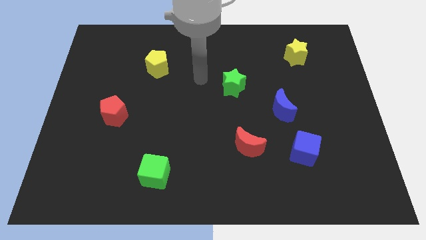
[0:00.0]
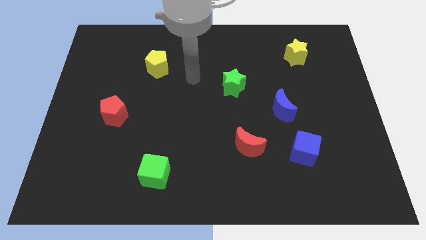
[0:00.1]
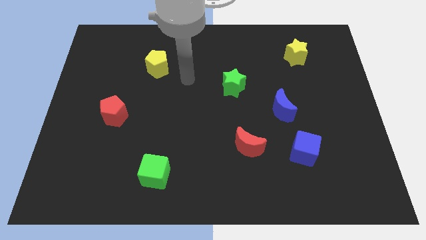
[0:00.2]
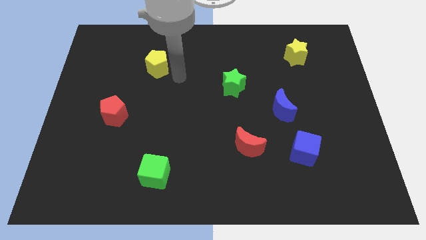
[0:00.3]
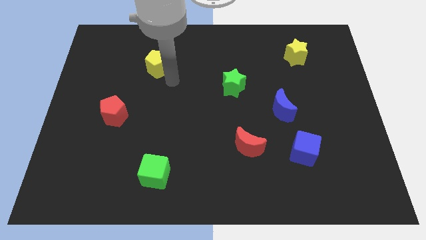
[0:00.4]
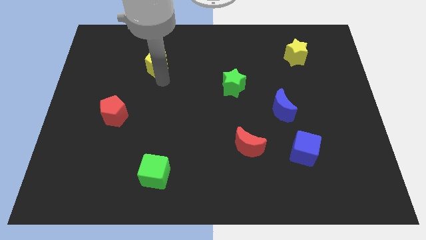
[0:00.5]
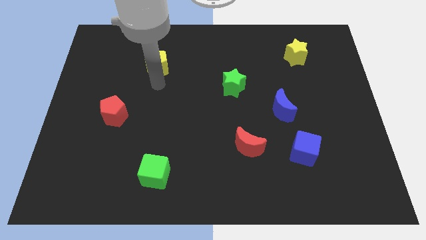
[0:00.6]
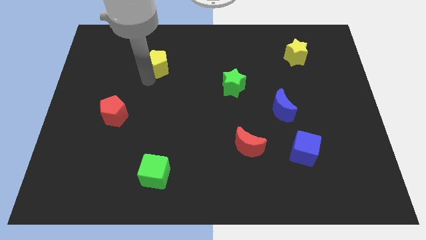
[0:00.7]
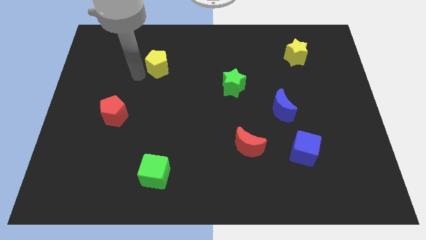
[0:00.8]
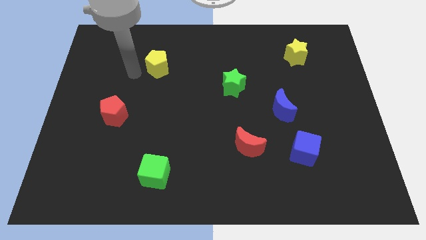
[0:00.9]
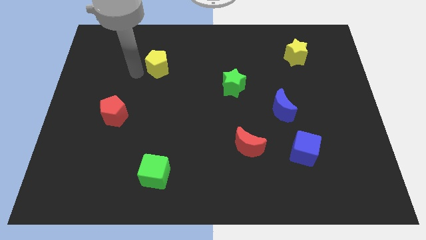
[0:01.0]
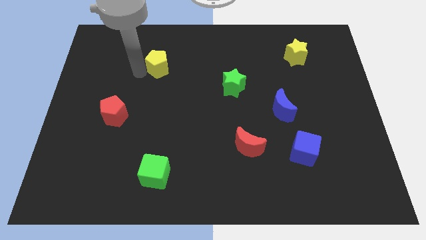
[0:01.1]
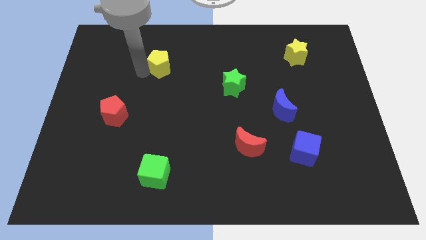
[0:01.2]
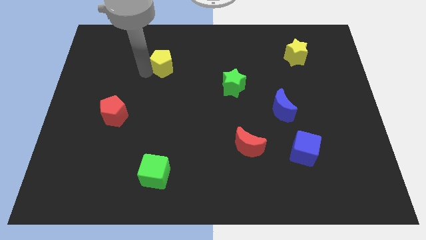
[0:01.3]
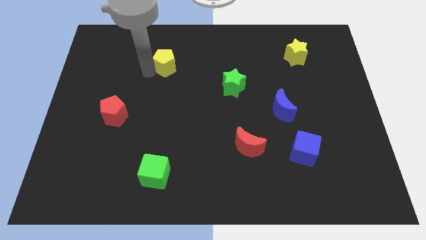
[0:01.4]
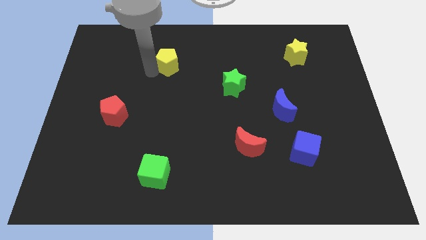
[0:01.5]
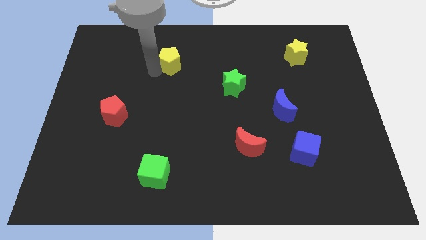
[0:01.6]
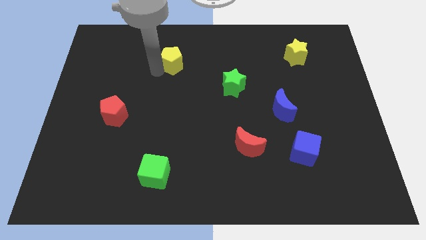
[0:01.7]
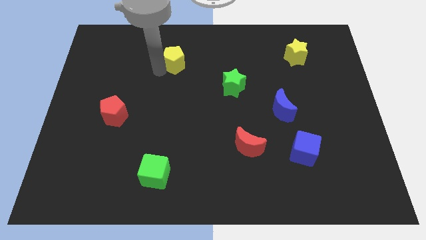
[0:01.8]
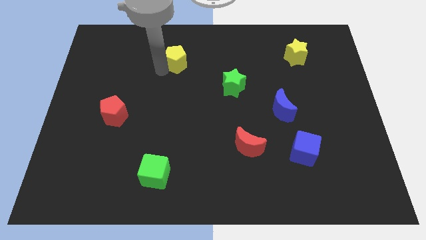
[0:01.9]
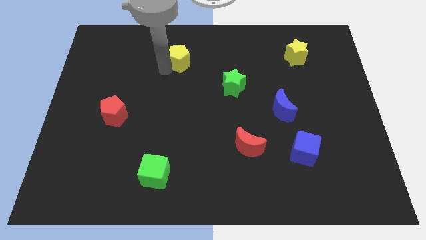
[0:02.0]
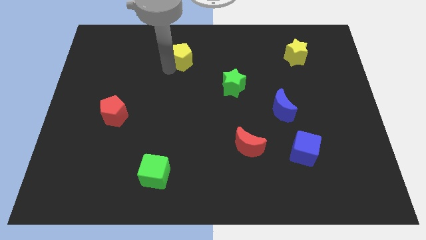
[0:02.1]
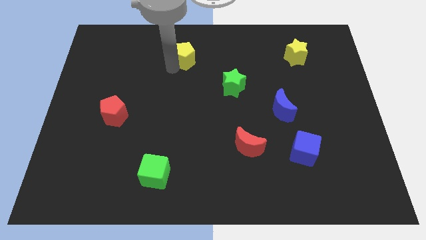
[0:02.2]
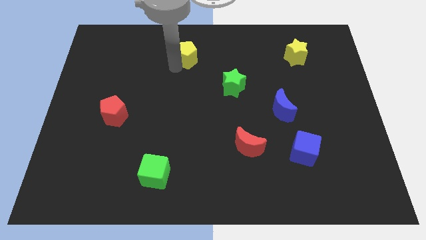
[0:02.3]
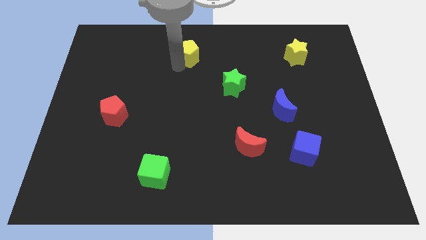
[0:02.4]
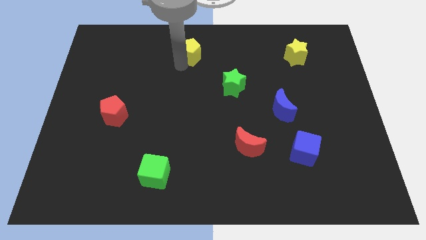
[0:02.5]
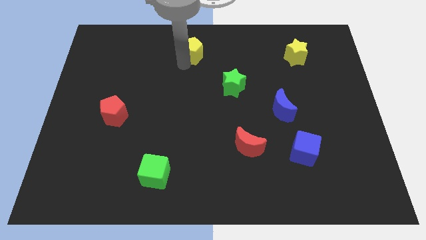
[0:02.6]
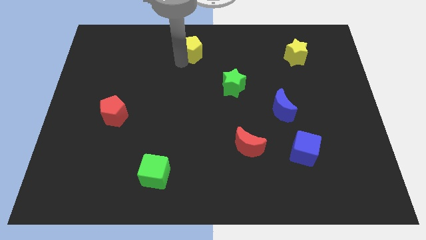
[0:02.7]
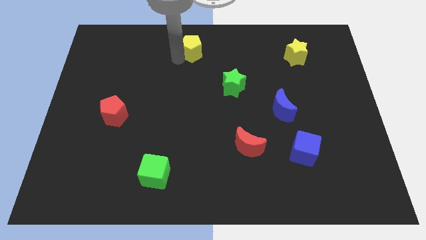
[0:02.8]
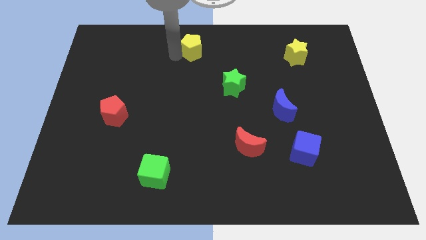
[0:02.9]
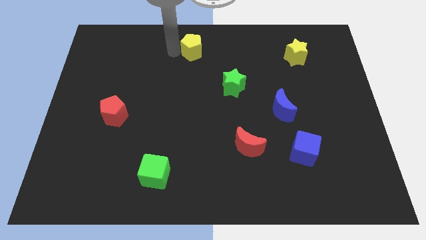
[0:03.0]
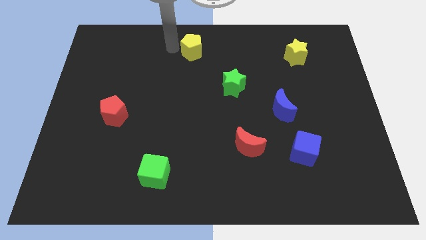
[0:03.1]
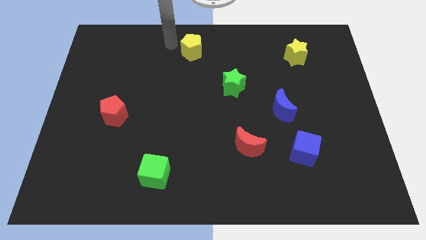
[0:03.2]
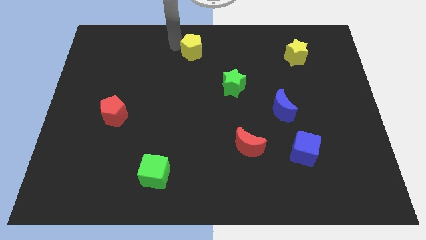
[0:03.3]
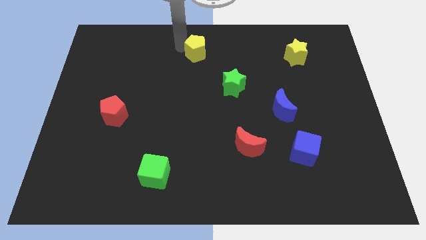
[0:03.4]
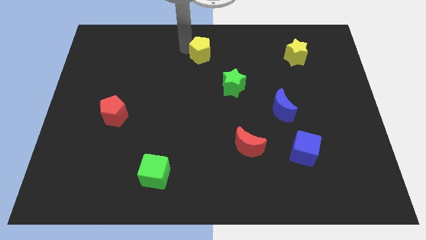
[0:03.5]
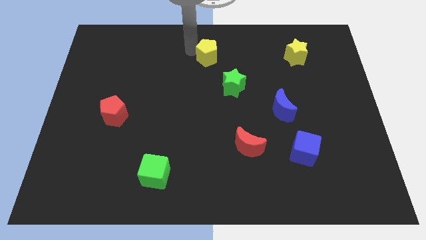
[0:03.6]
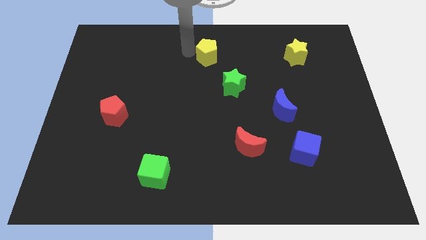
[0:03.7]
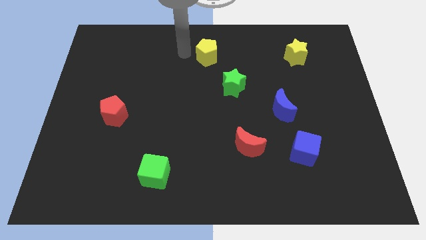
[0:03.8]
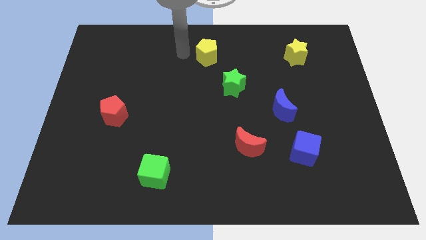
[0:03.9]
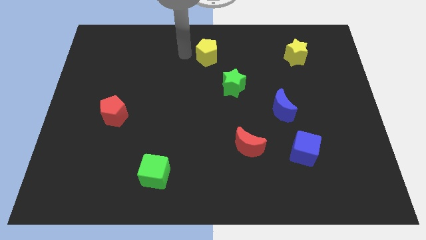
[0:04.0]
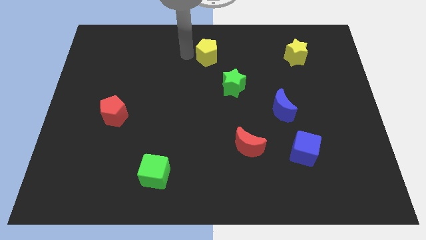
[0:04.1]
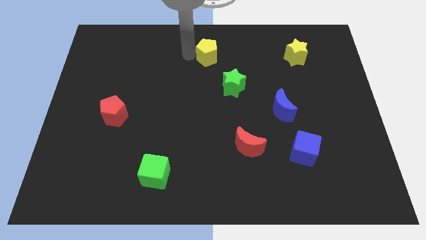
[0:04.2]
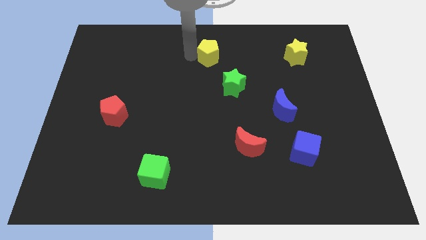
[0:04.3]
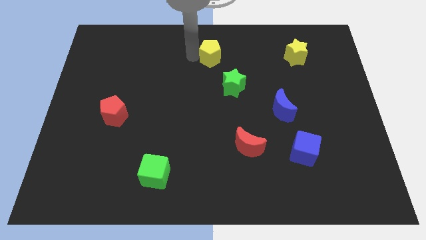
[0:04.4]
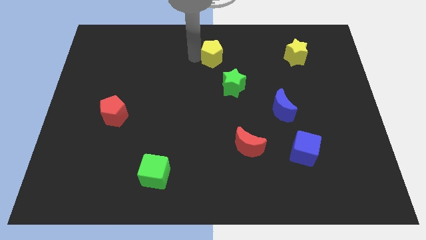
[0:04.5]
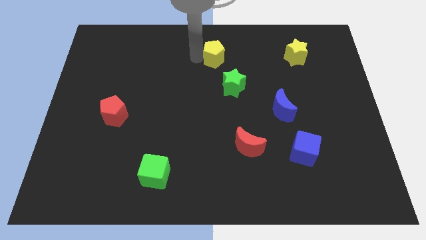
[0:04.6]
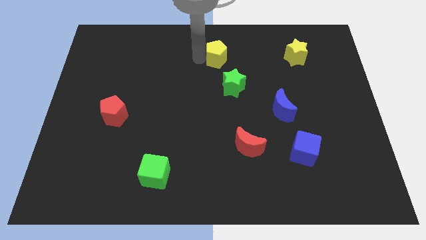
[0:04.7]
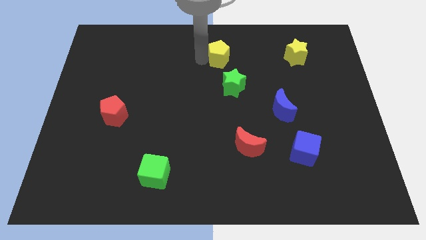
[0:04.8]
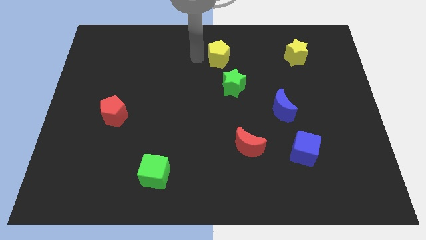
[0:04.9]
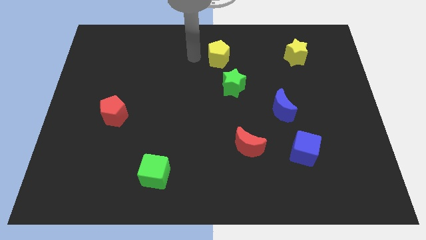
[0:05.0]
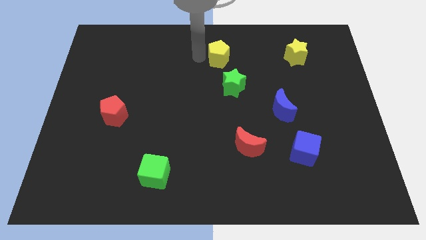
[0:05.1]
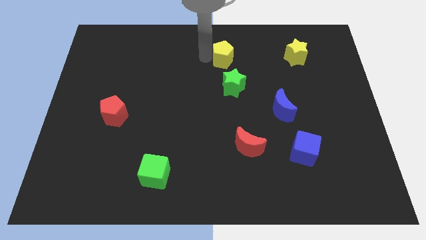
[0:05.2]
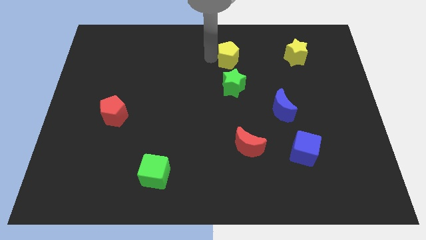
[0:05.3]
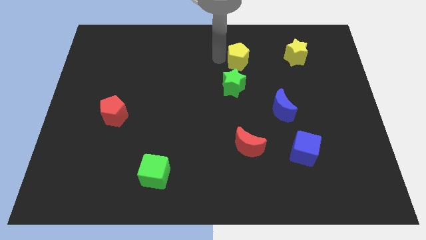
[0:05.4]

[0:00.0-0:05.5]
slide the yellow pentagon to the left of the yellow star

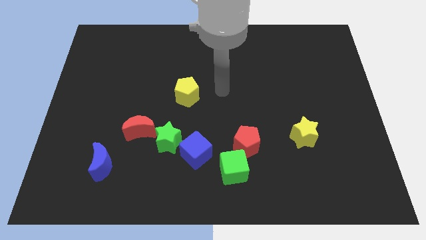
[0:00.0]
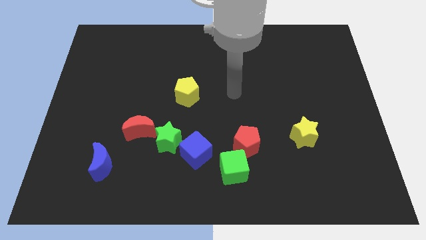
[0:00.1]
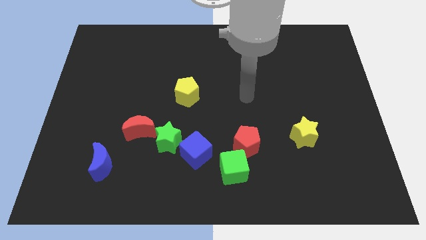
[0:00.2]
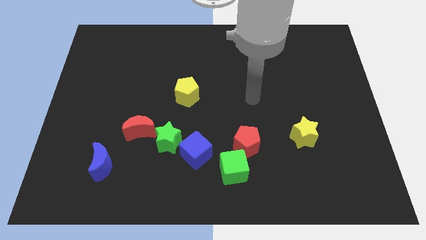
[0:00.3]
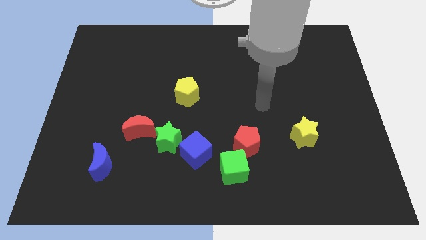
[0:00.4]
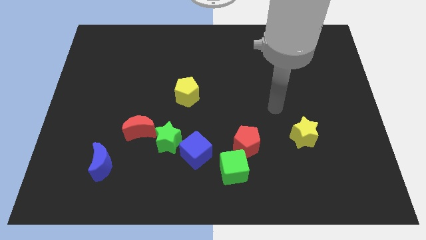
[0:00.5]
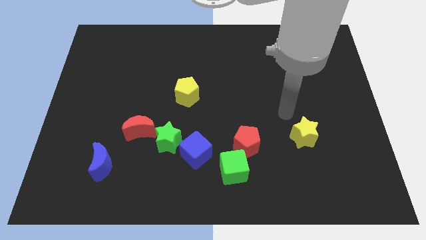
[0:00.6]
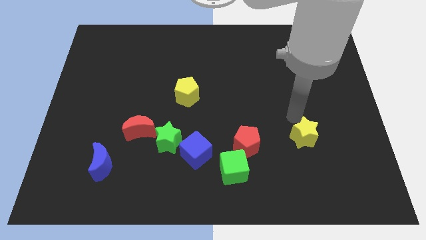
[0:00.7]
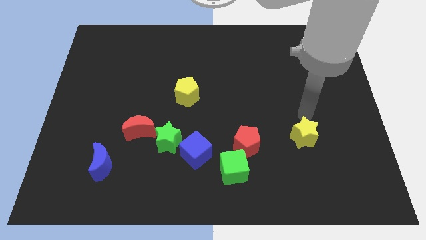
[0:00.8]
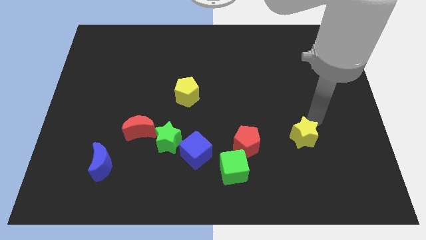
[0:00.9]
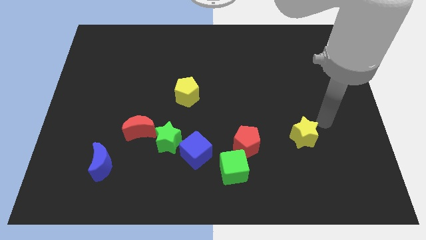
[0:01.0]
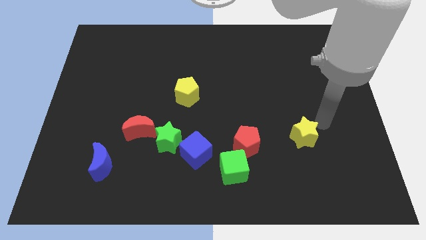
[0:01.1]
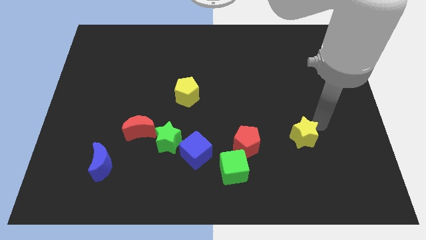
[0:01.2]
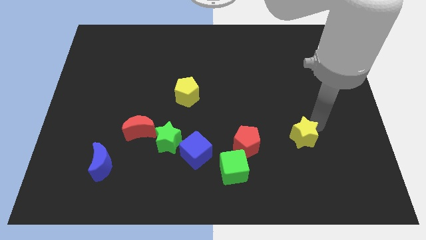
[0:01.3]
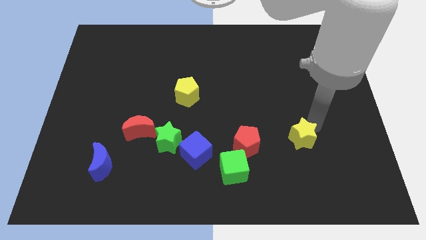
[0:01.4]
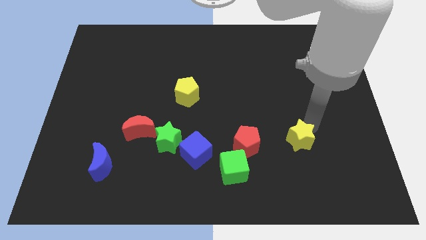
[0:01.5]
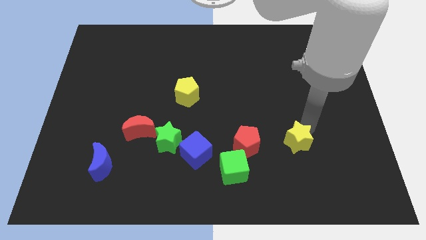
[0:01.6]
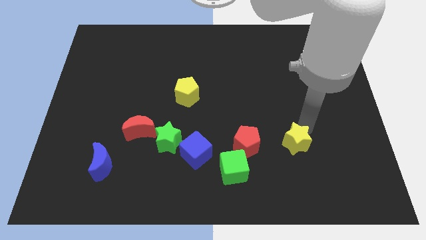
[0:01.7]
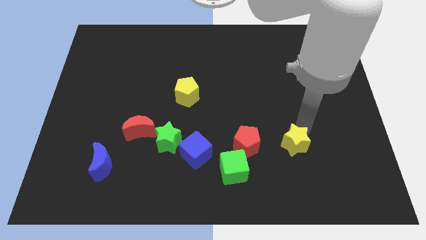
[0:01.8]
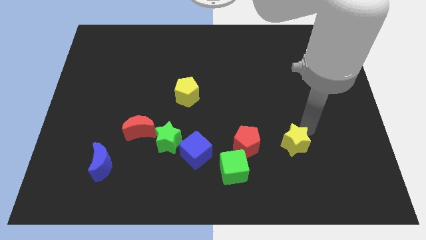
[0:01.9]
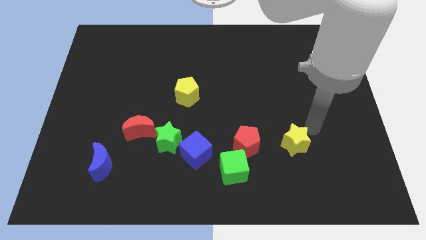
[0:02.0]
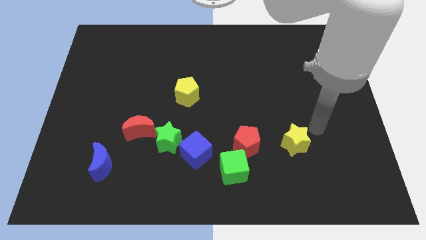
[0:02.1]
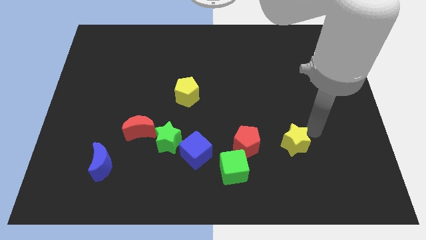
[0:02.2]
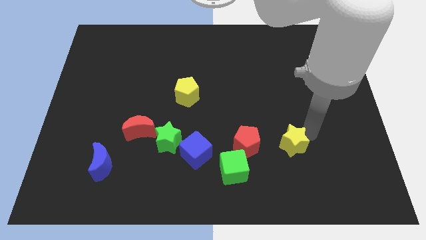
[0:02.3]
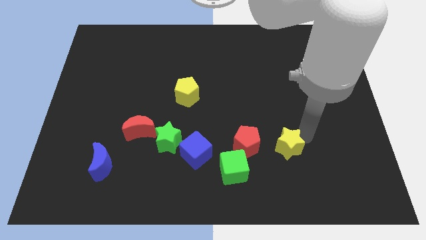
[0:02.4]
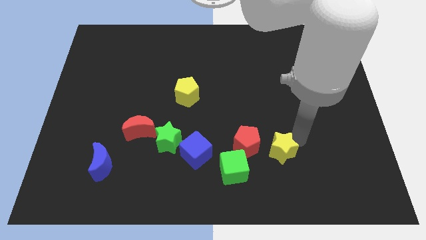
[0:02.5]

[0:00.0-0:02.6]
push the yellow star to the bottom right of the red pentagon
